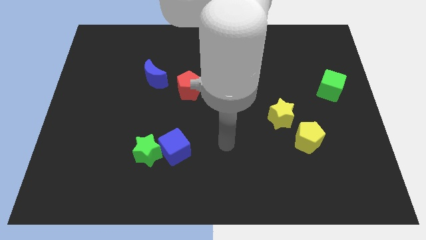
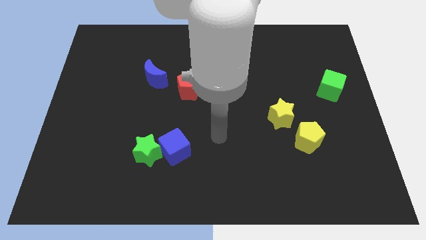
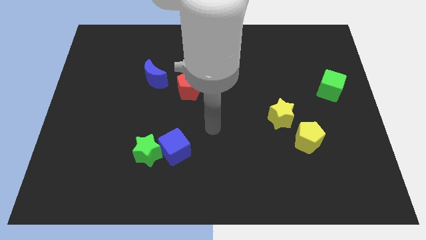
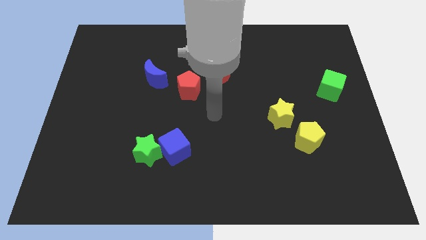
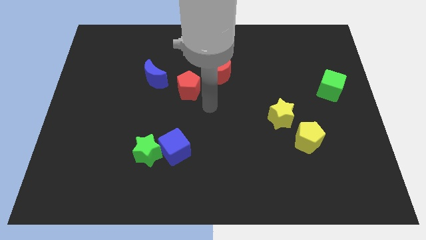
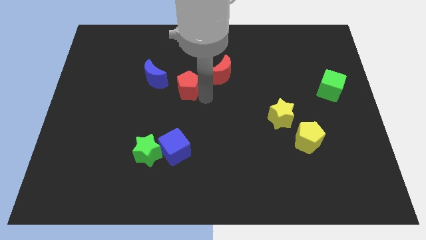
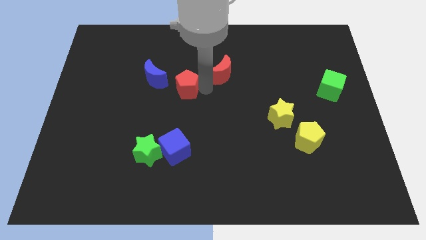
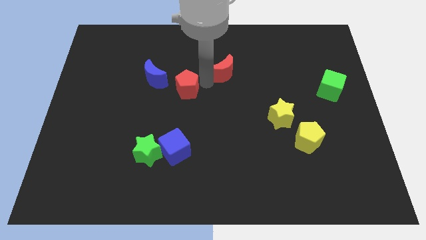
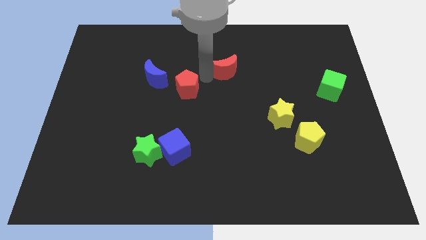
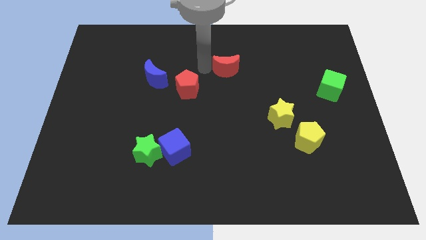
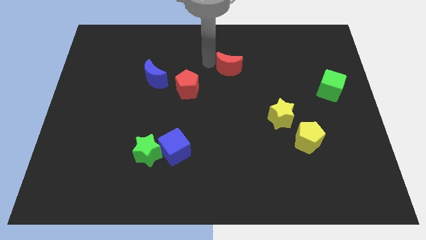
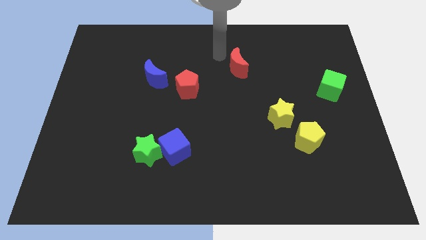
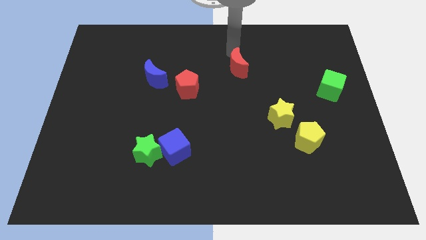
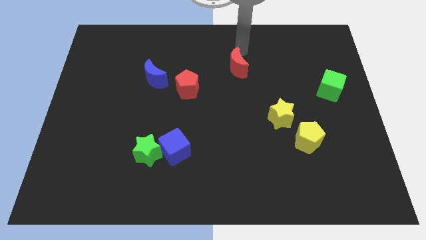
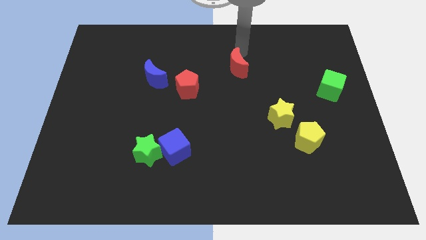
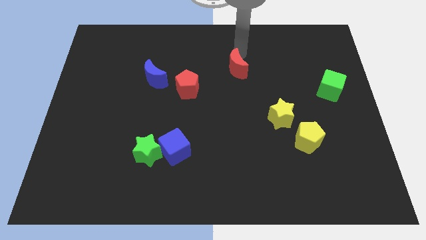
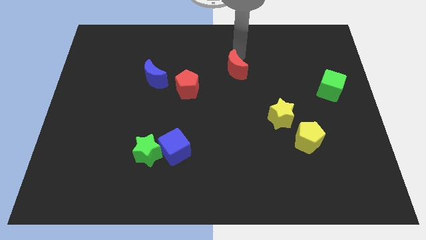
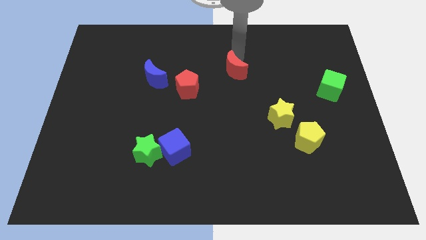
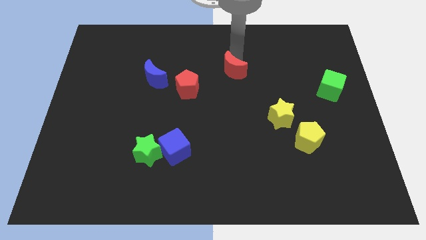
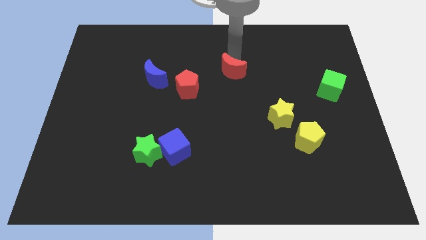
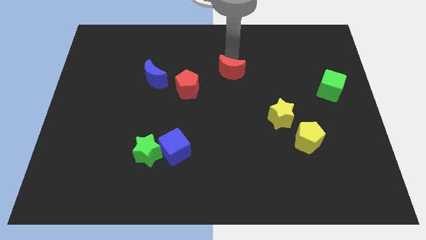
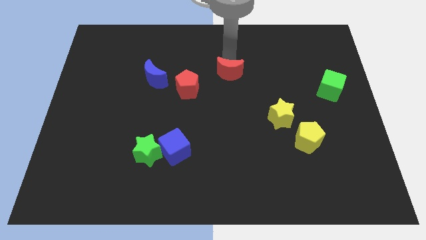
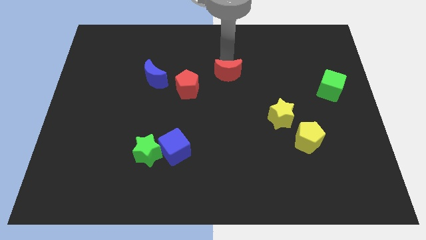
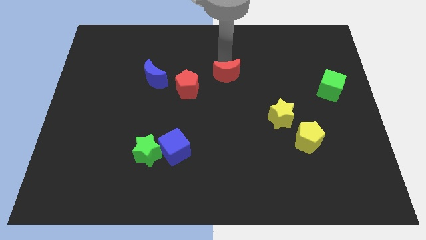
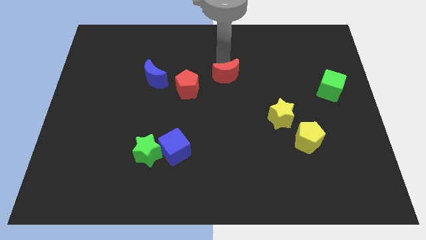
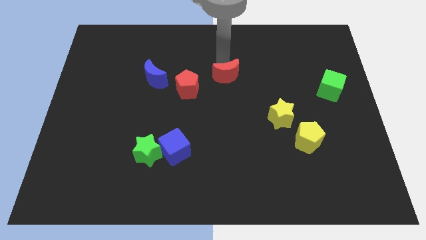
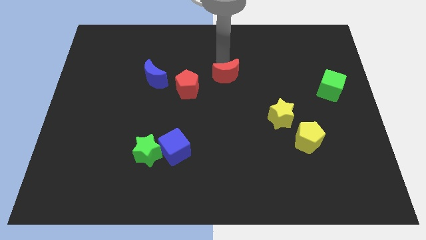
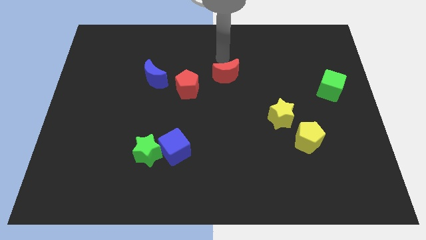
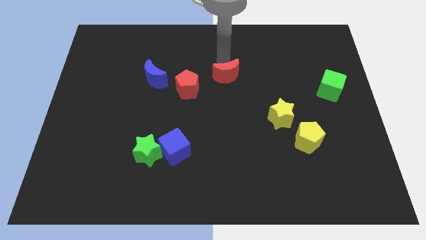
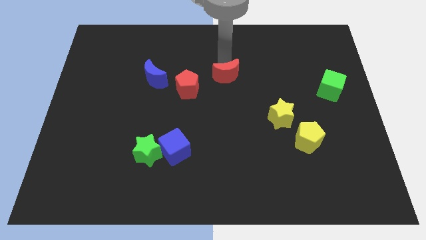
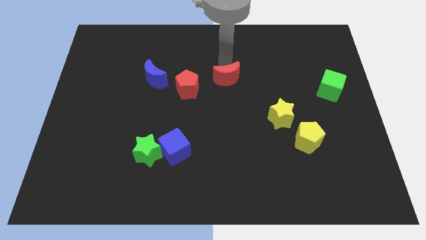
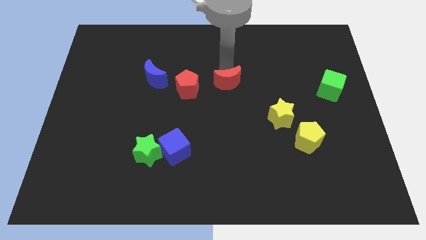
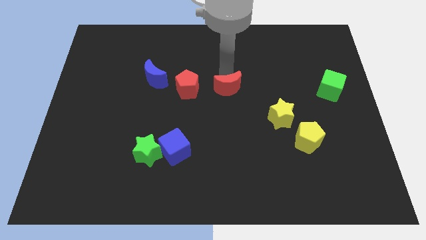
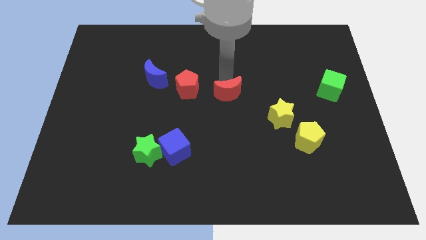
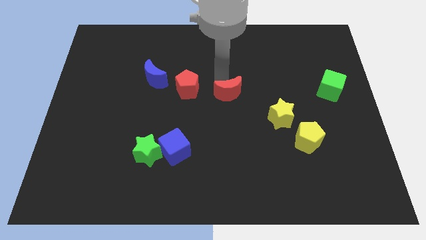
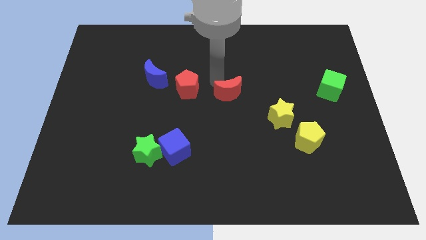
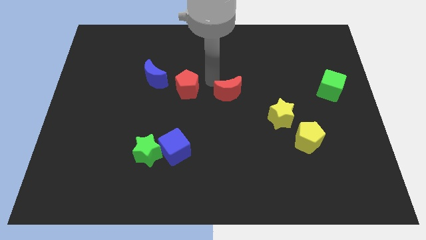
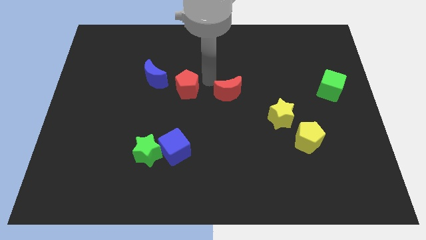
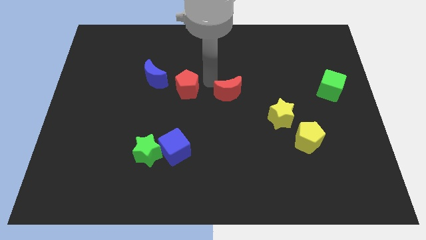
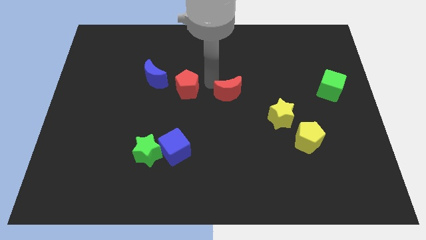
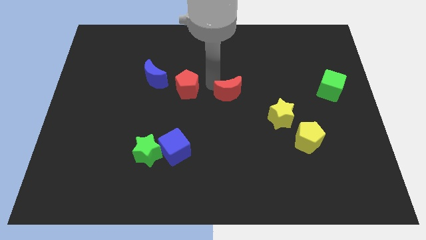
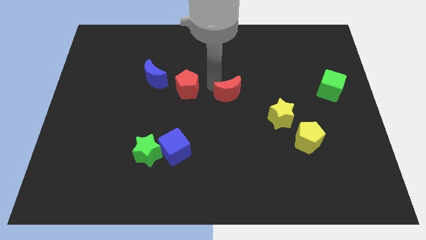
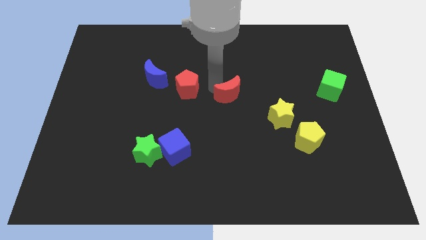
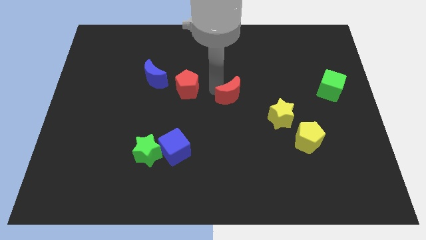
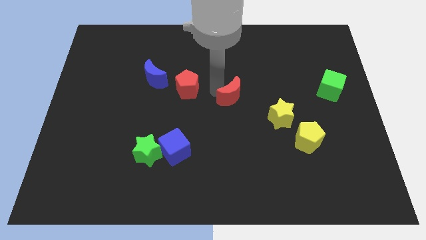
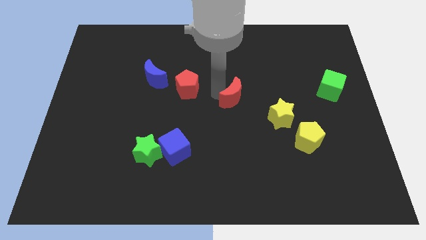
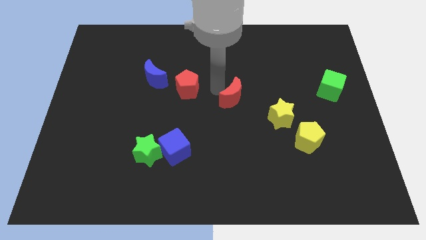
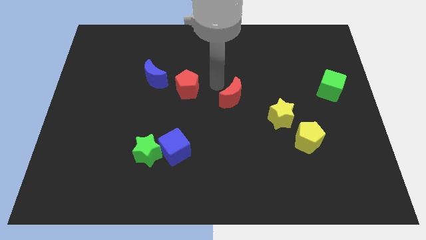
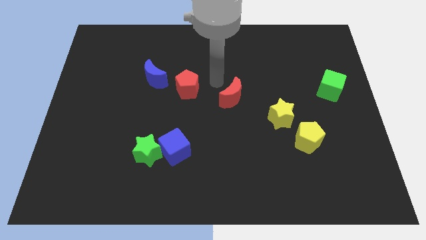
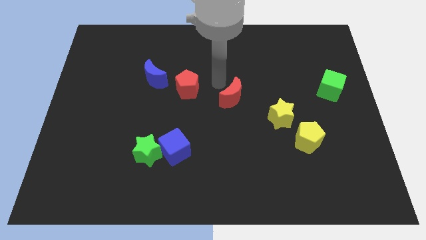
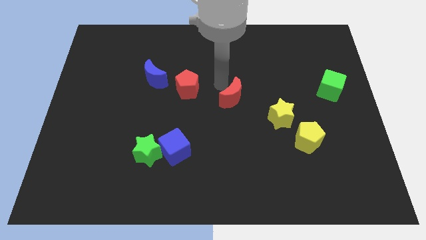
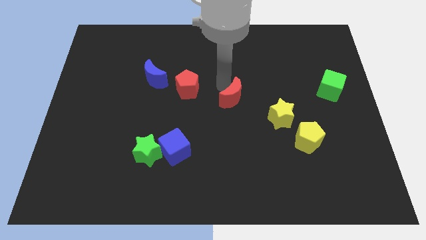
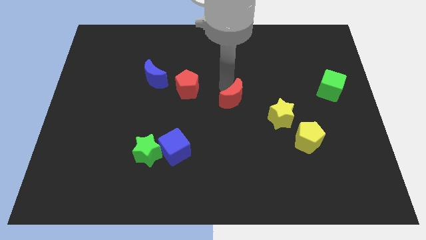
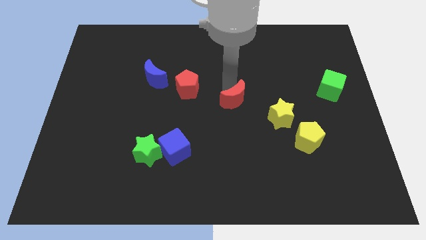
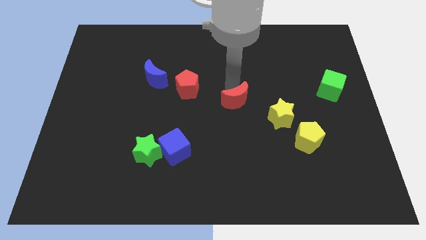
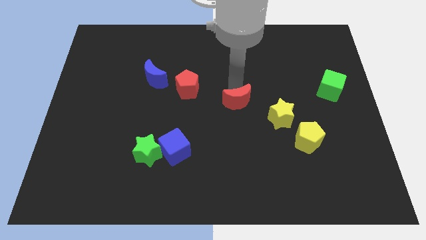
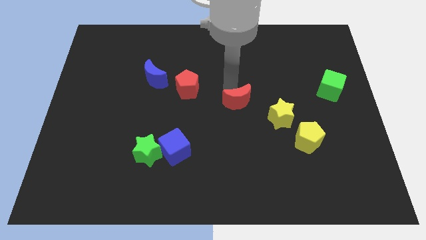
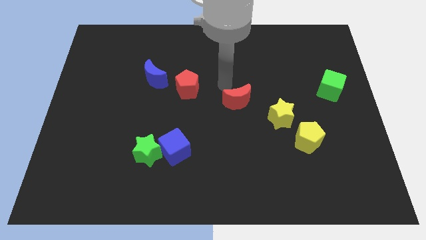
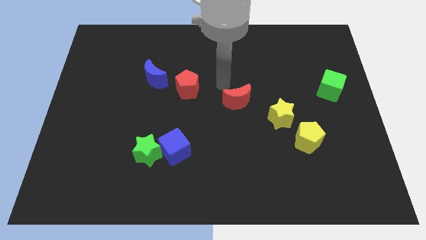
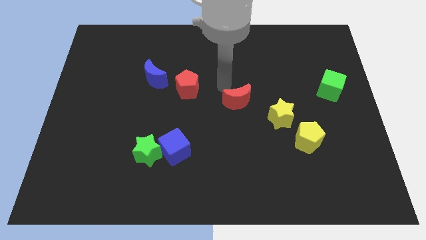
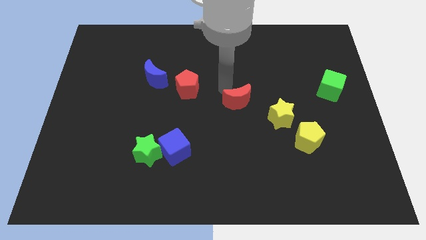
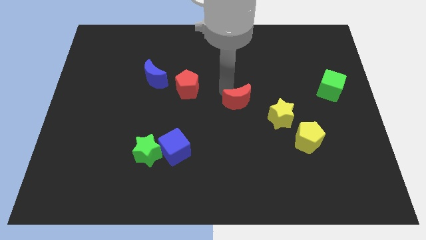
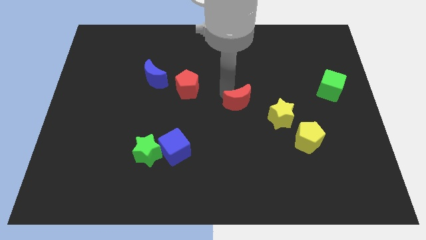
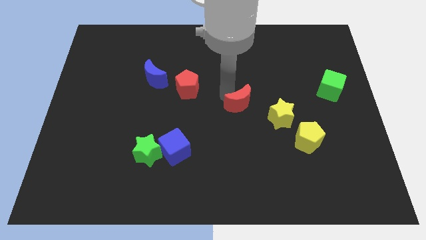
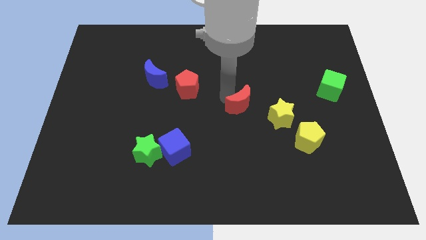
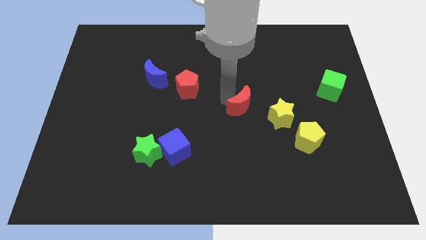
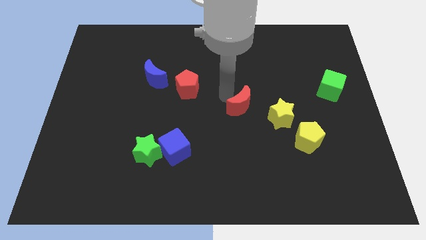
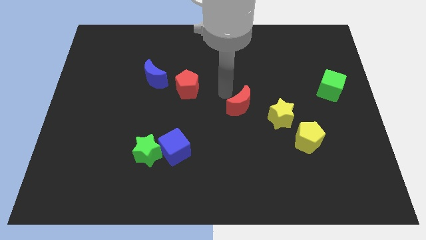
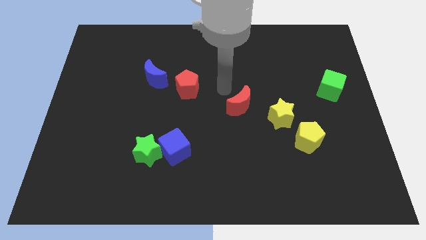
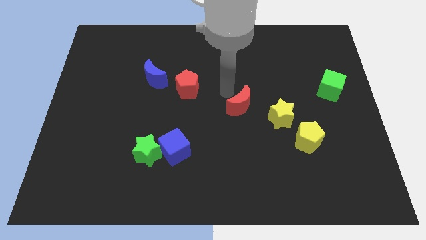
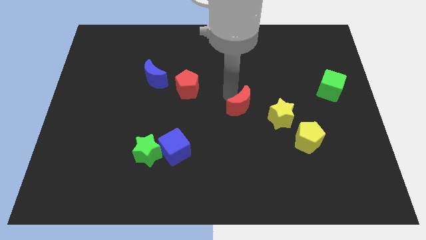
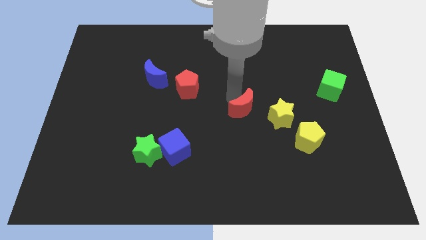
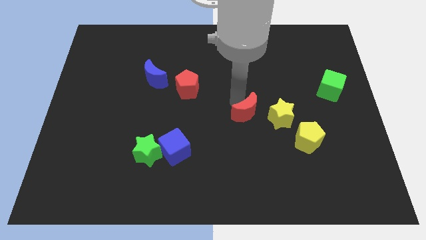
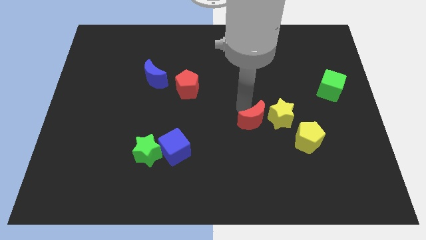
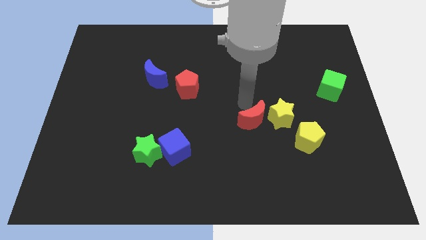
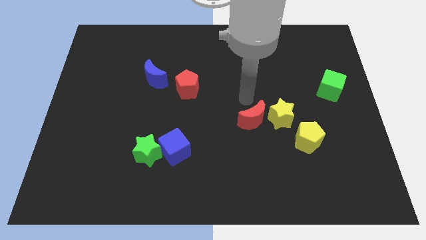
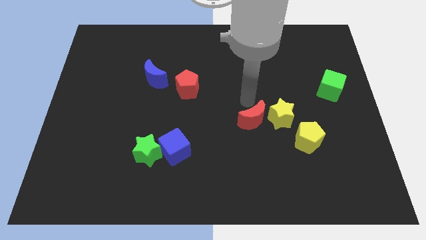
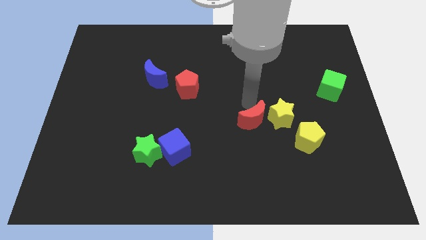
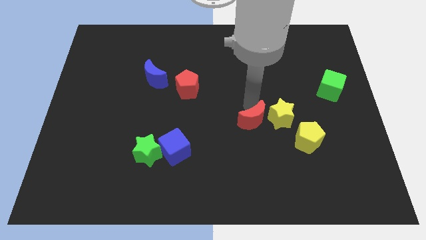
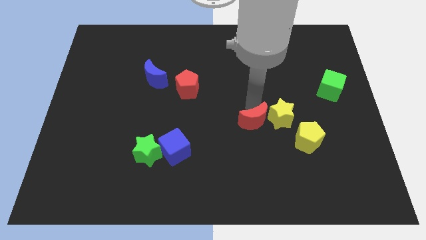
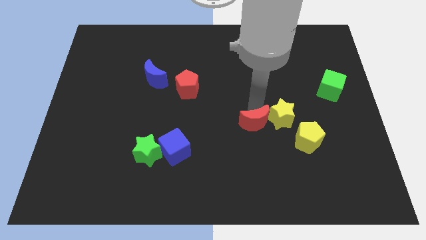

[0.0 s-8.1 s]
put the red moon just left of the yellow pentagon

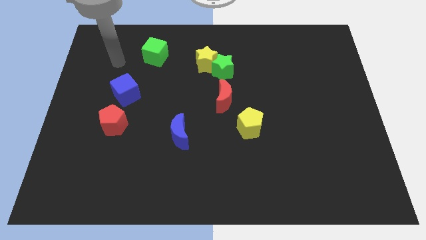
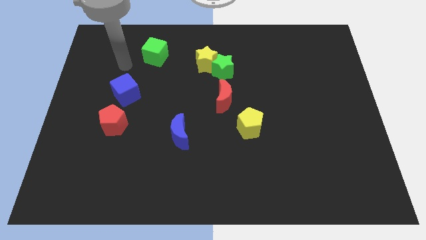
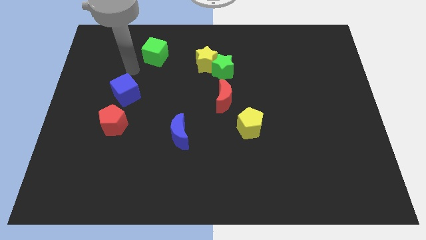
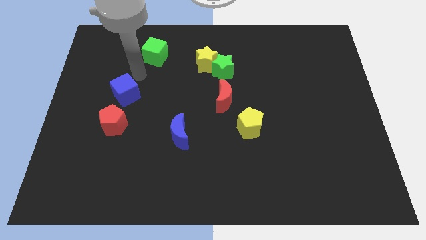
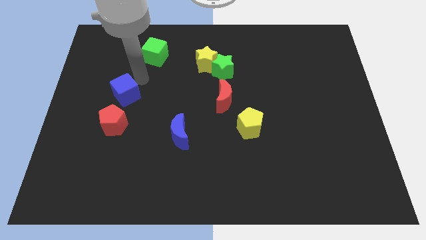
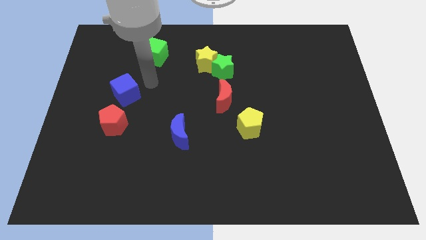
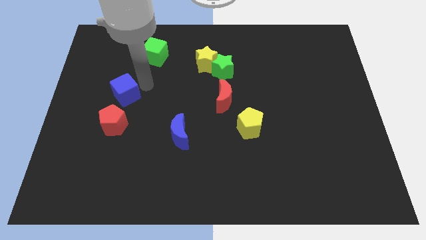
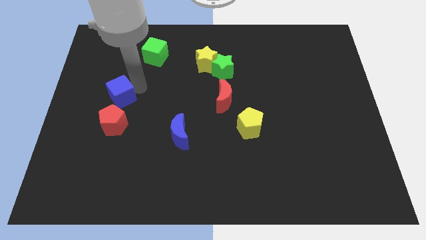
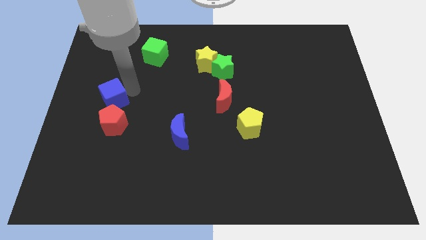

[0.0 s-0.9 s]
slide the blue cube to the top left side of the red pentagon
